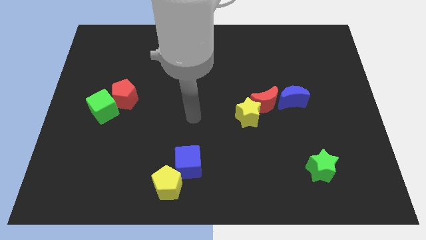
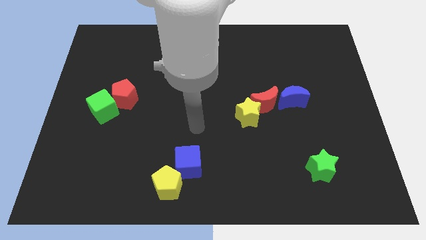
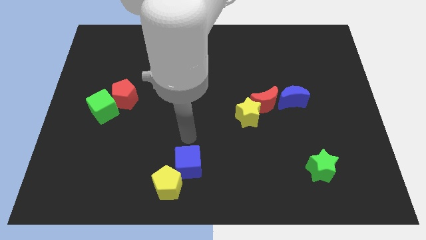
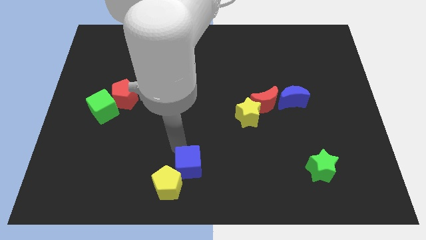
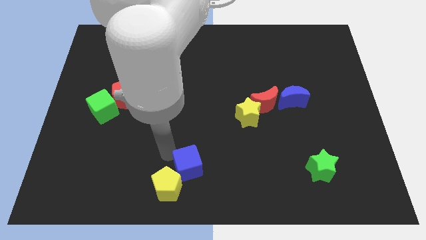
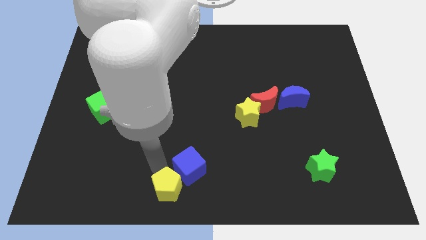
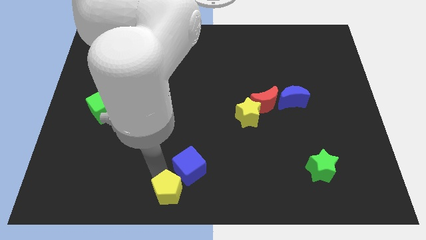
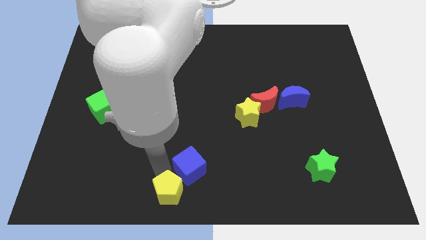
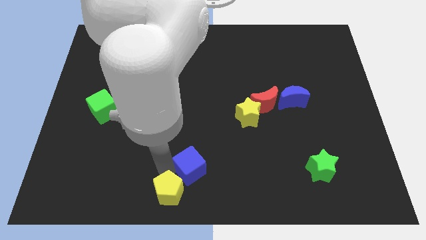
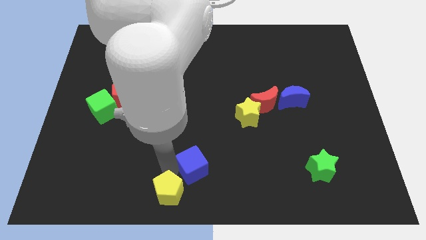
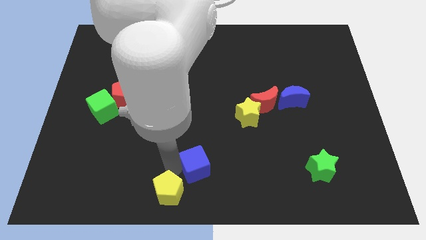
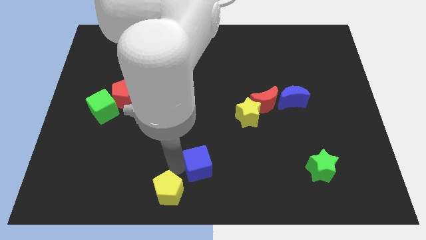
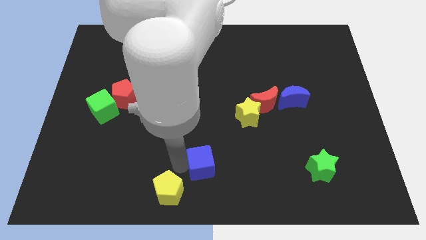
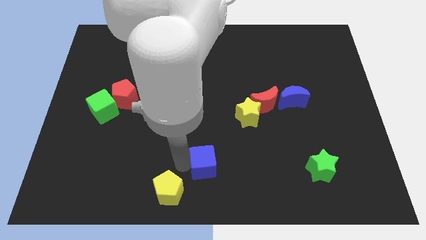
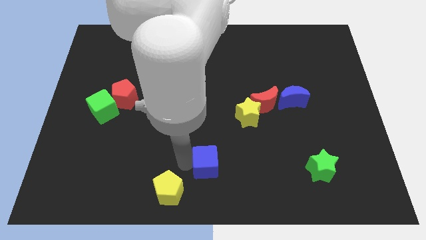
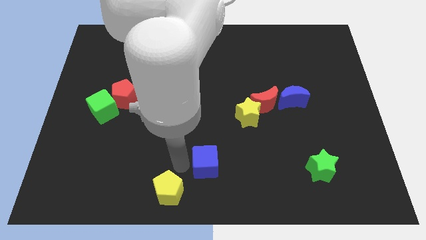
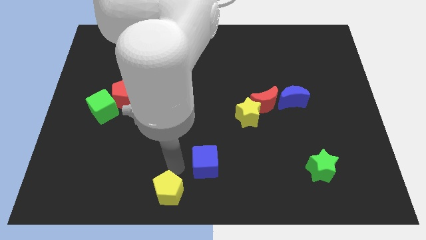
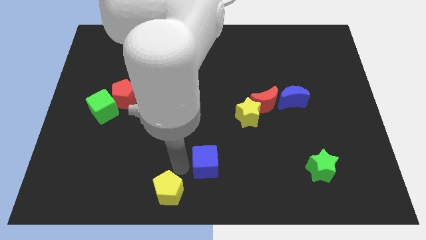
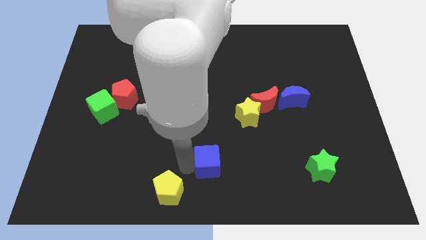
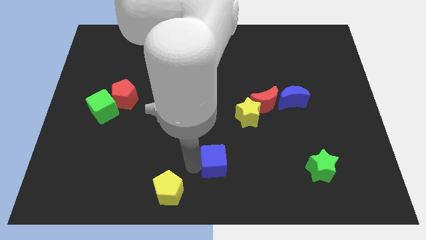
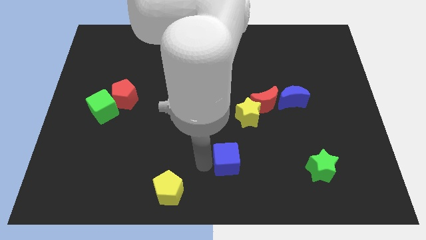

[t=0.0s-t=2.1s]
slide the blue cube to the right a little bit

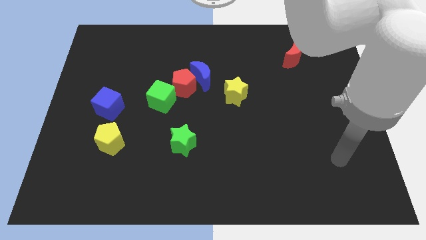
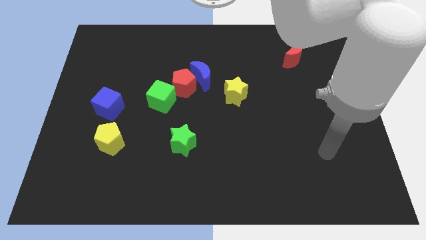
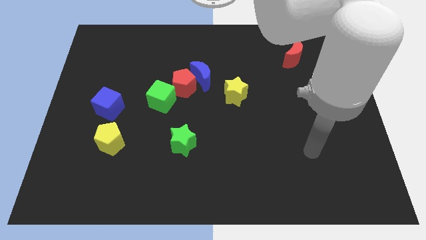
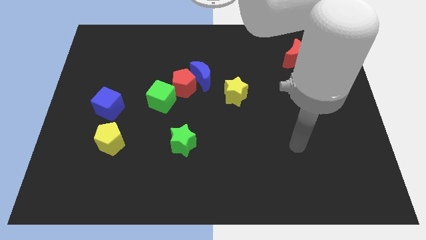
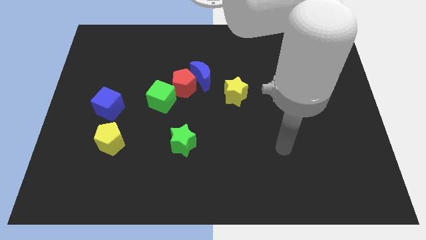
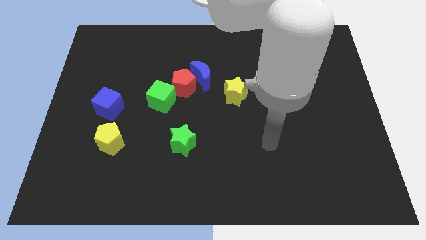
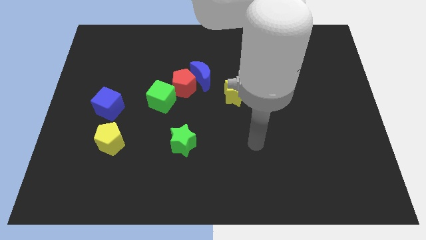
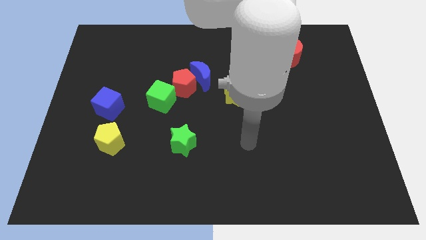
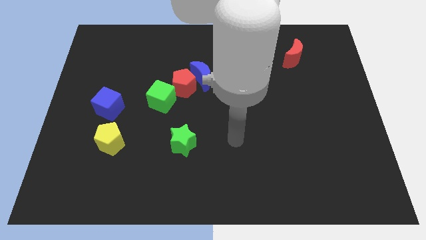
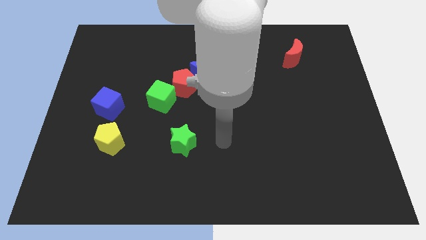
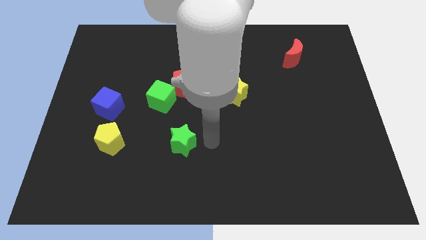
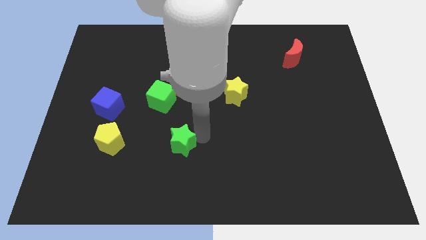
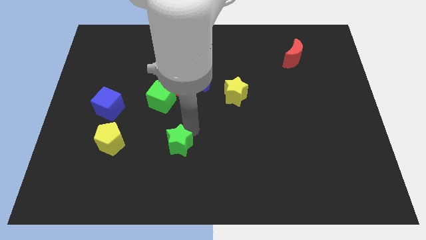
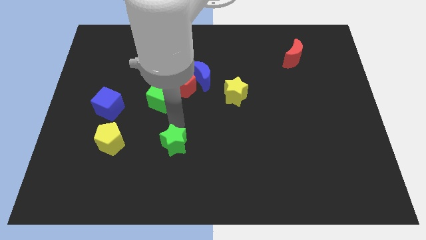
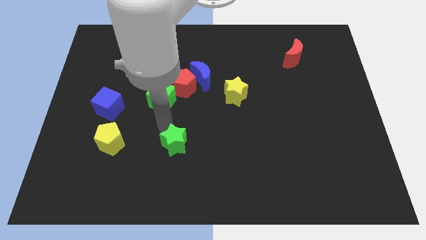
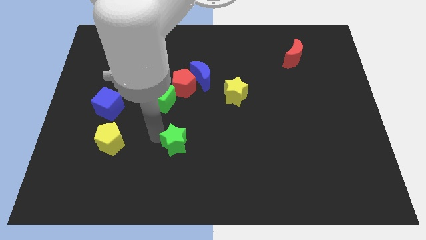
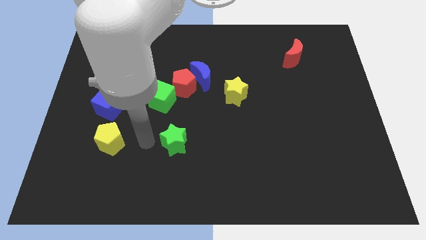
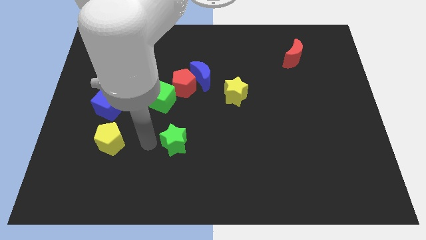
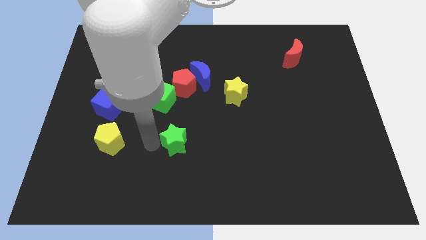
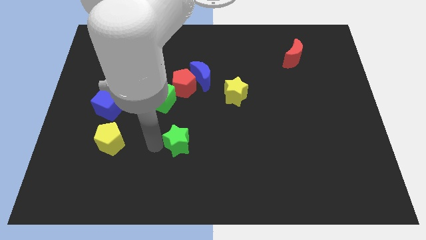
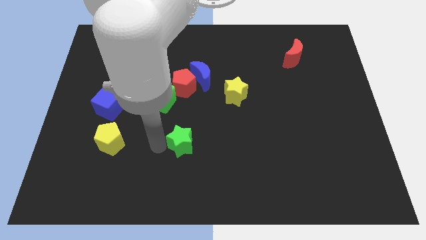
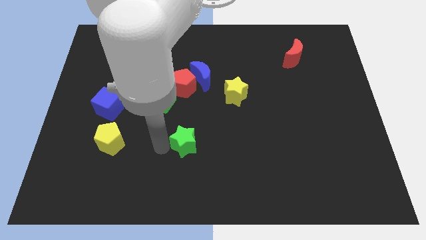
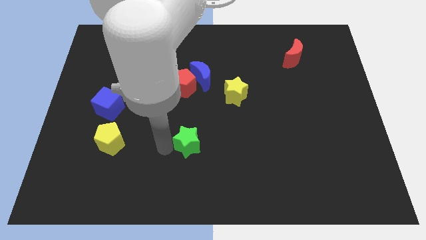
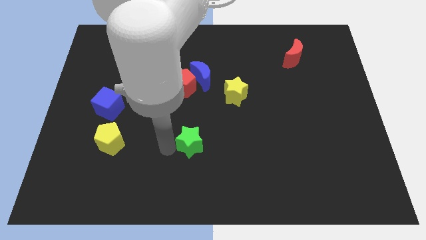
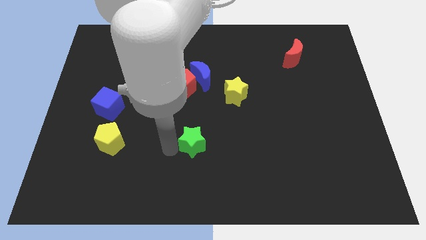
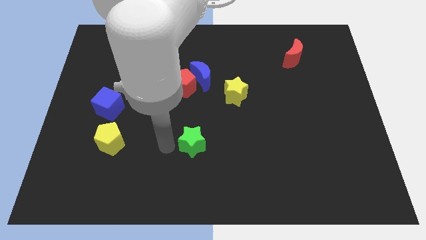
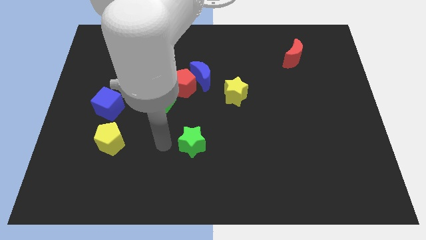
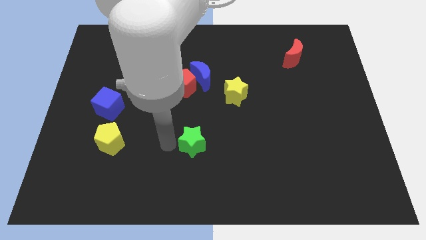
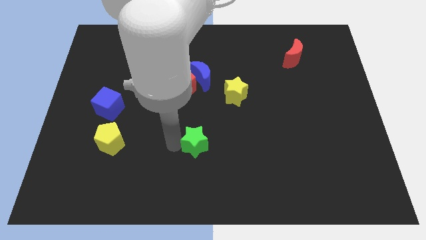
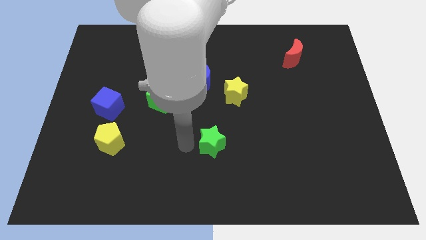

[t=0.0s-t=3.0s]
push the green star right a bit

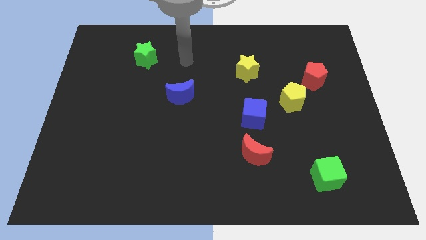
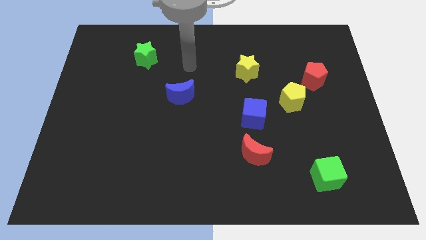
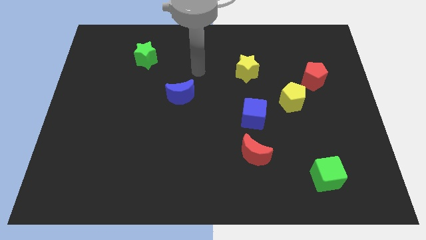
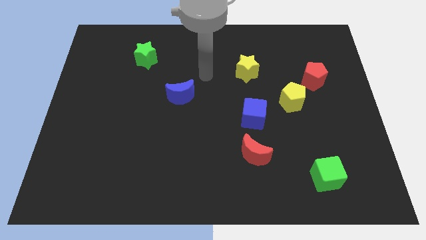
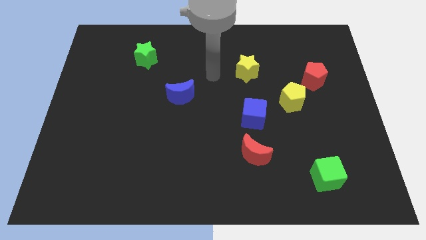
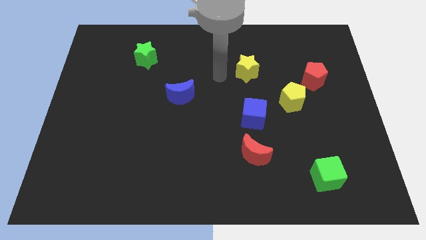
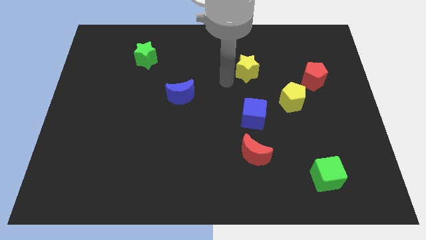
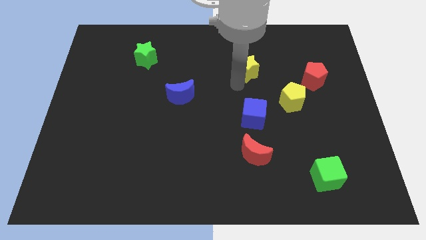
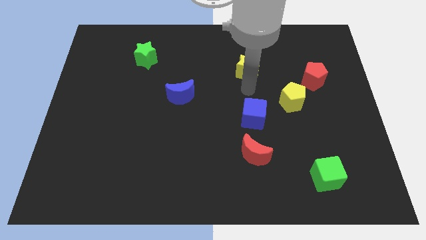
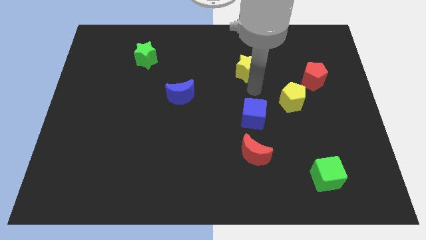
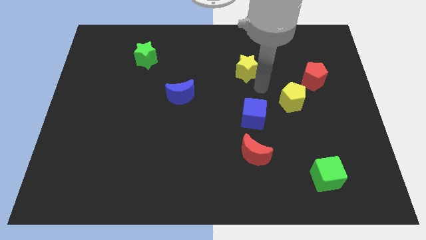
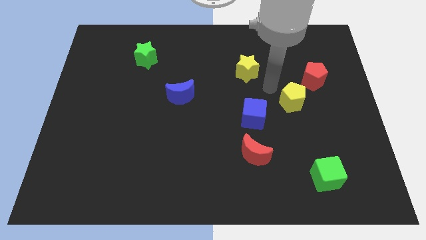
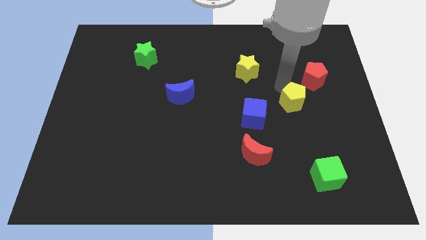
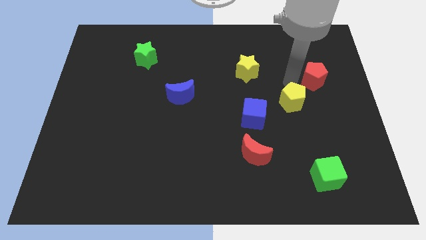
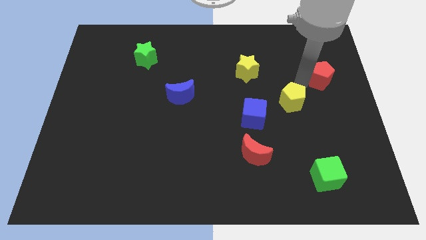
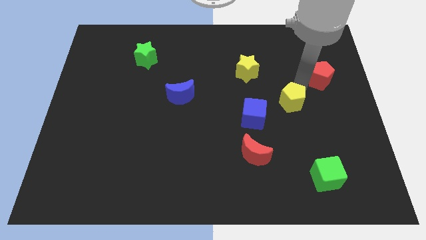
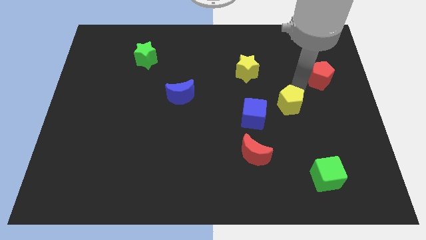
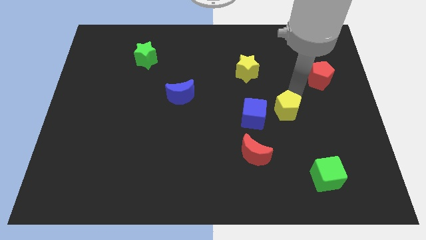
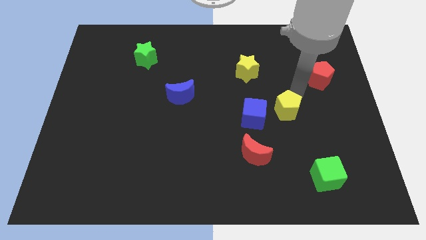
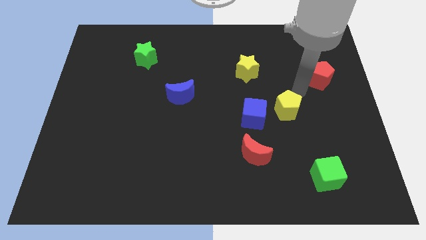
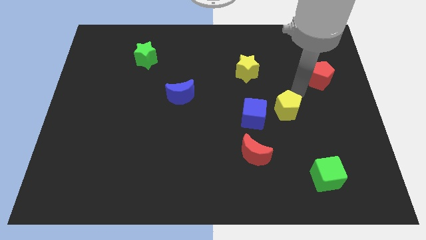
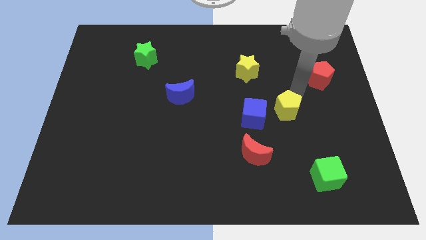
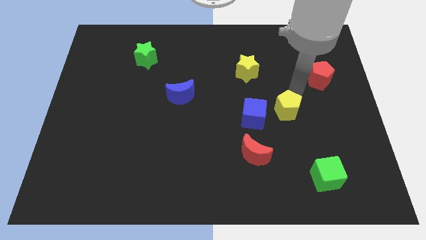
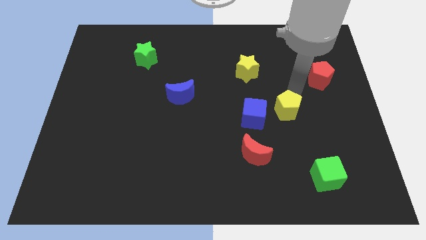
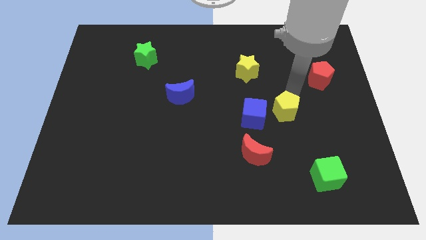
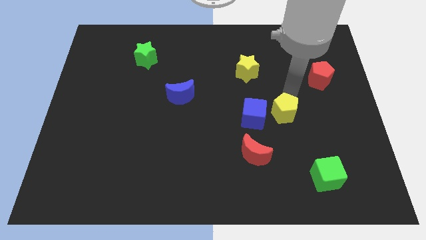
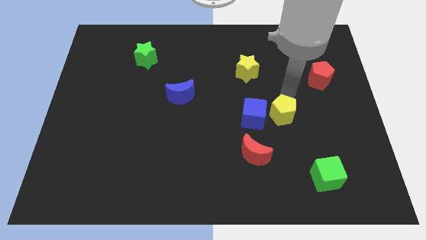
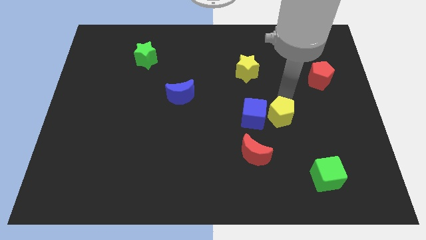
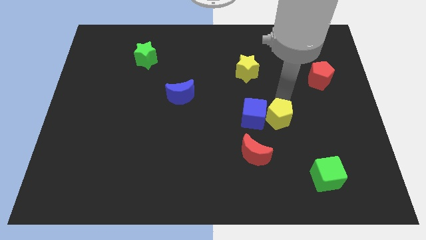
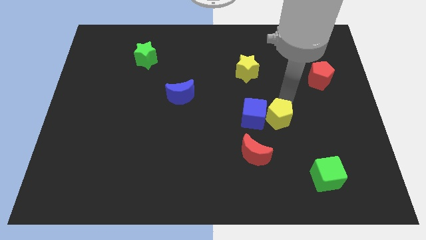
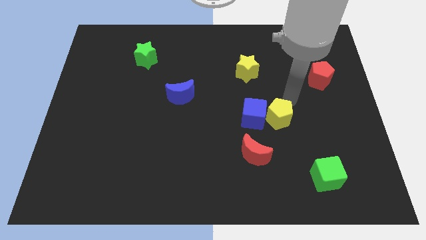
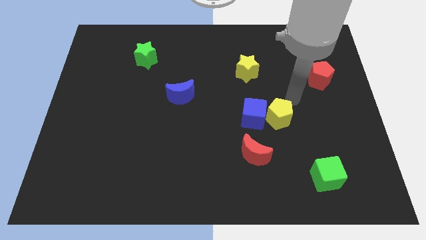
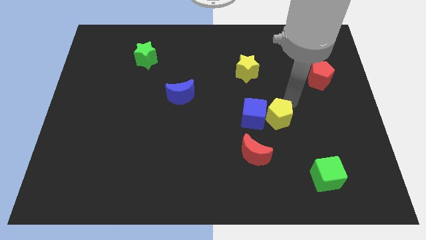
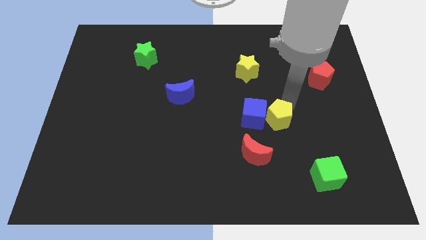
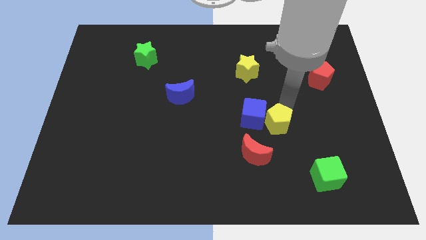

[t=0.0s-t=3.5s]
push the yellow pentagon down and to the left diagonally a little
